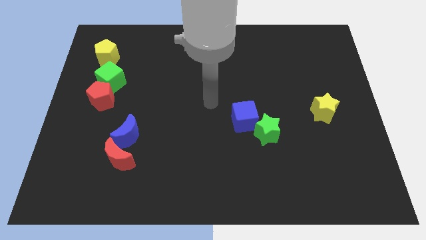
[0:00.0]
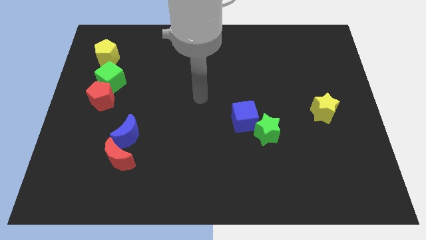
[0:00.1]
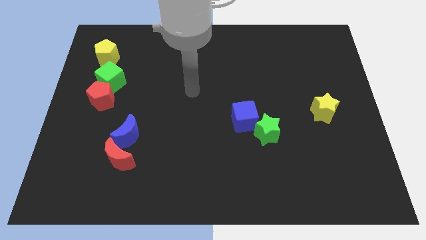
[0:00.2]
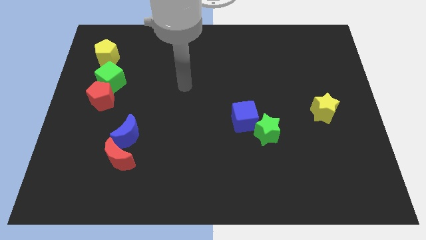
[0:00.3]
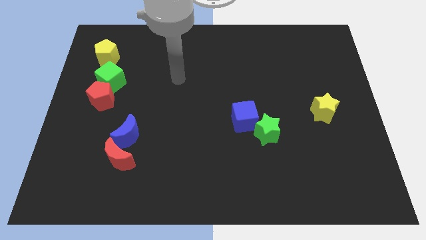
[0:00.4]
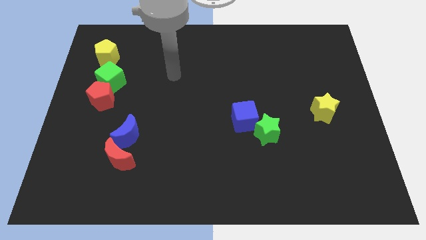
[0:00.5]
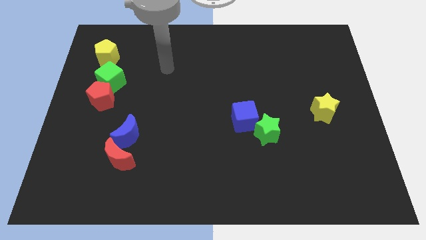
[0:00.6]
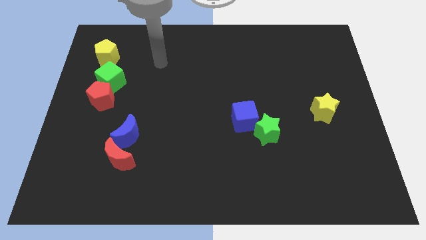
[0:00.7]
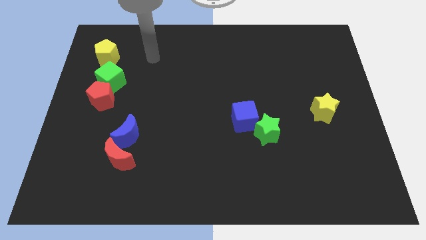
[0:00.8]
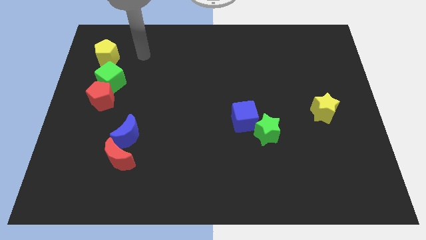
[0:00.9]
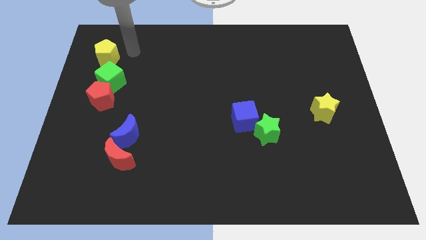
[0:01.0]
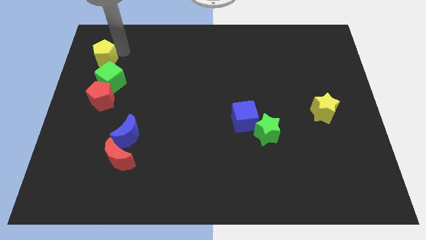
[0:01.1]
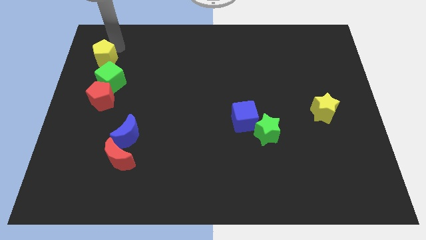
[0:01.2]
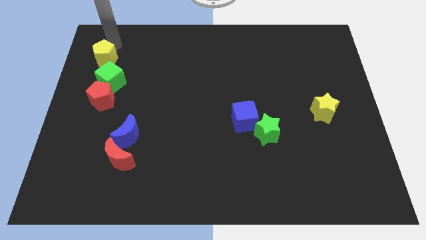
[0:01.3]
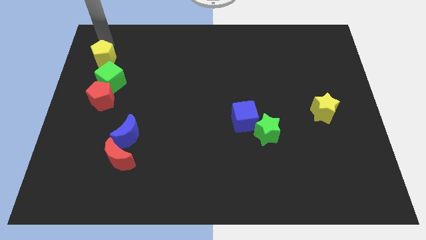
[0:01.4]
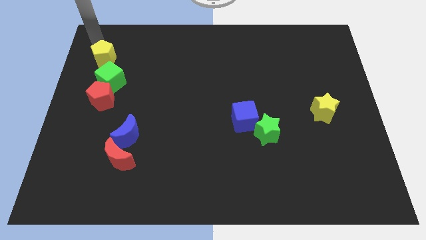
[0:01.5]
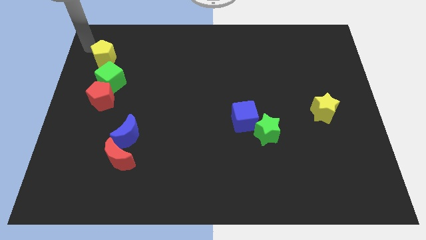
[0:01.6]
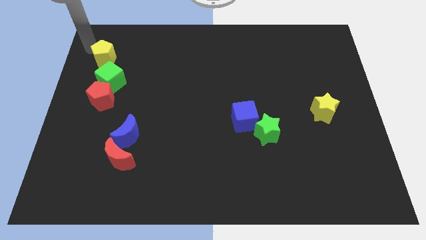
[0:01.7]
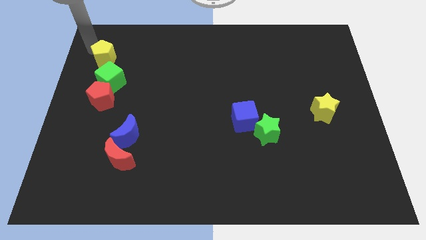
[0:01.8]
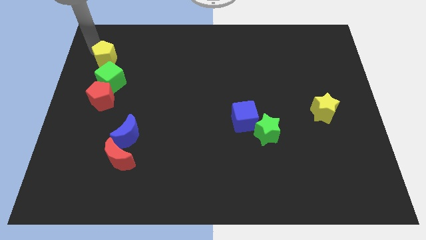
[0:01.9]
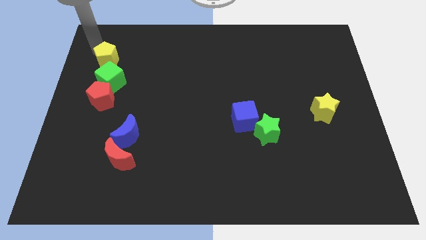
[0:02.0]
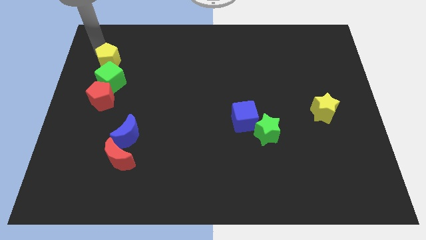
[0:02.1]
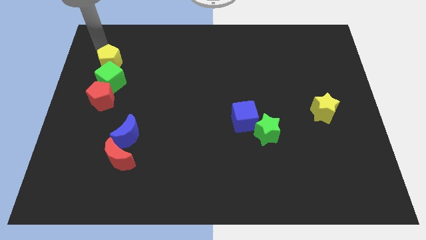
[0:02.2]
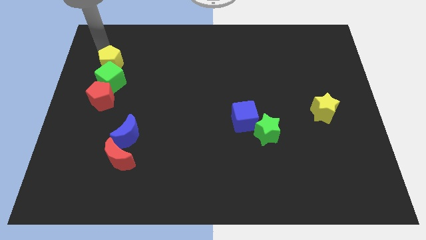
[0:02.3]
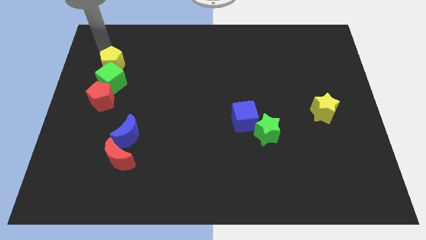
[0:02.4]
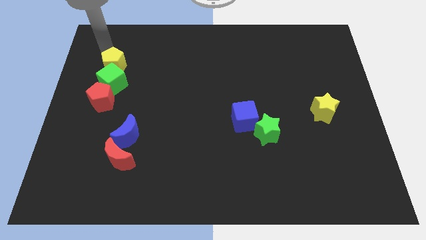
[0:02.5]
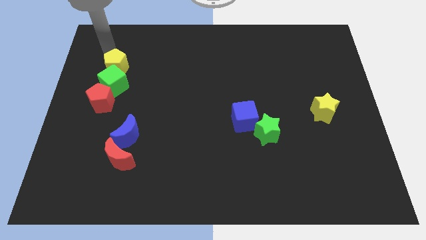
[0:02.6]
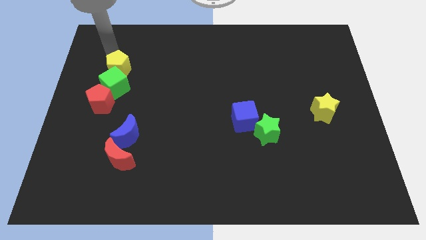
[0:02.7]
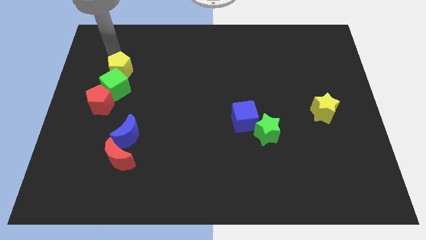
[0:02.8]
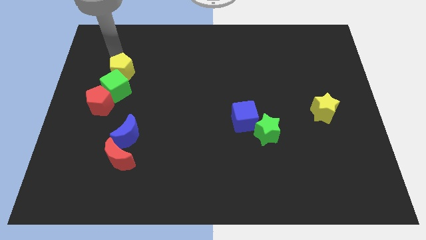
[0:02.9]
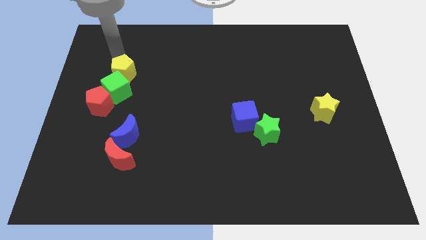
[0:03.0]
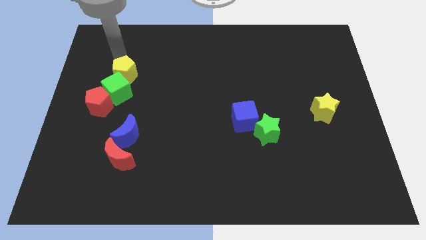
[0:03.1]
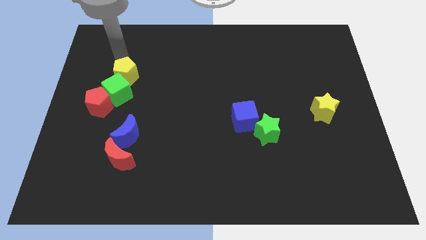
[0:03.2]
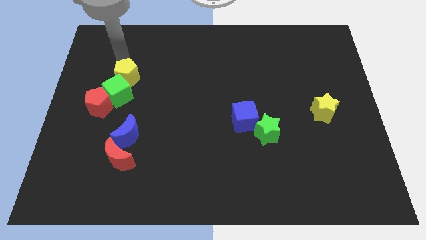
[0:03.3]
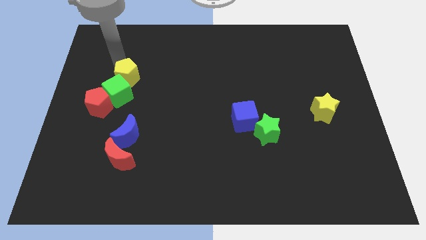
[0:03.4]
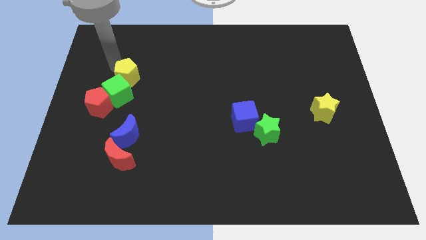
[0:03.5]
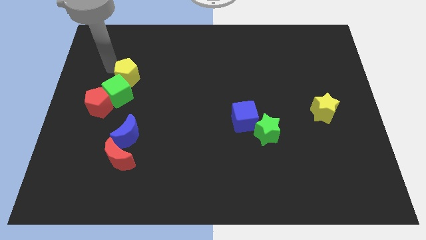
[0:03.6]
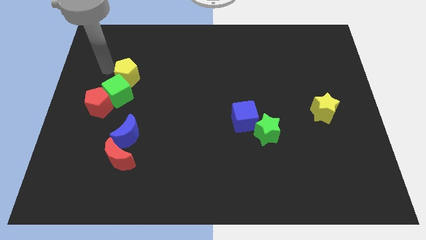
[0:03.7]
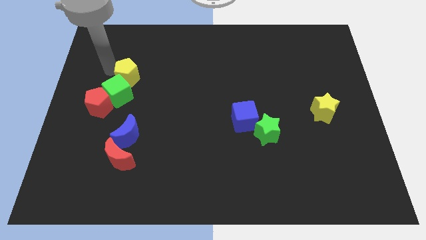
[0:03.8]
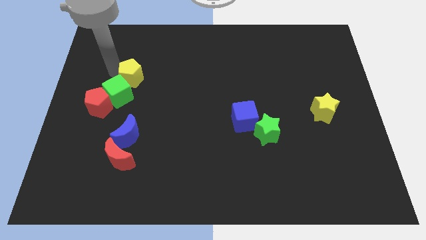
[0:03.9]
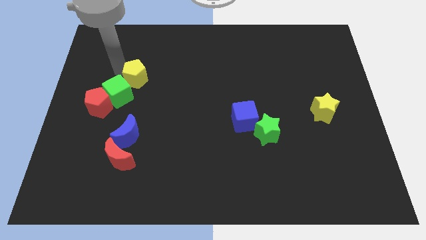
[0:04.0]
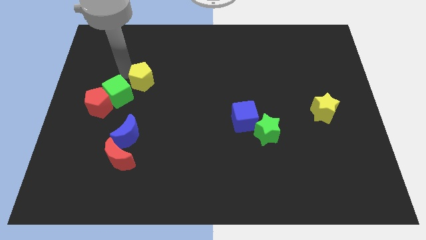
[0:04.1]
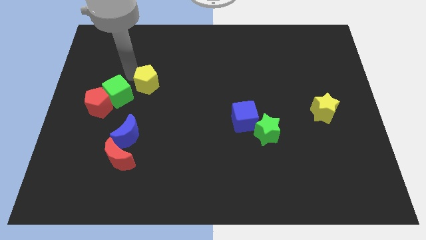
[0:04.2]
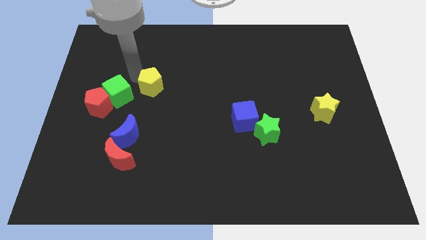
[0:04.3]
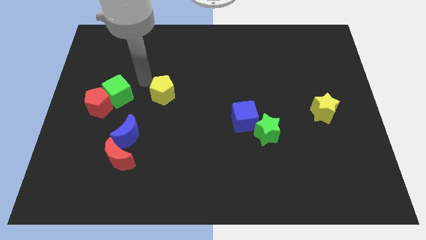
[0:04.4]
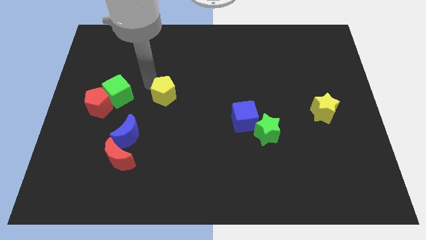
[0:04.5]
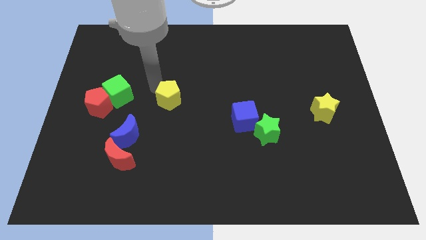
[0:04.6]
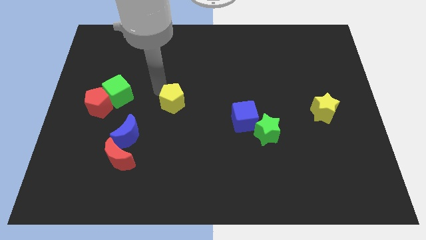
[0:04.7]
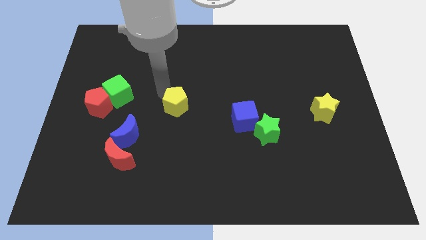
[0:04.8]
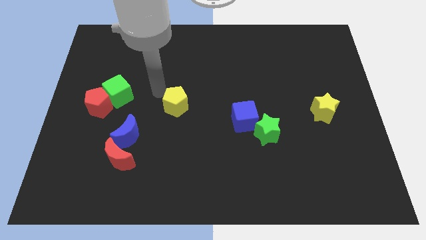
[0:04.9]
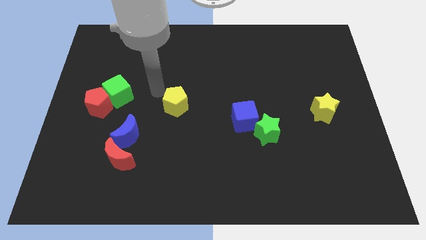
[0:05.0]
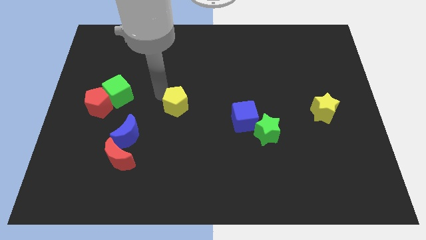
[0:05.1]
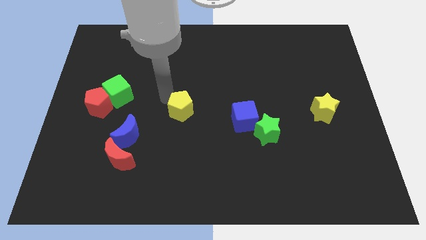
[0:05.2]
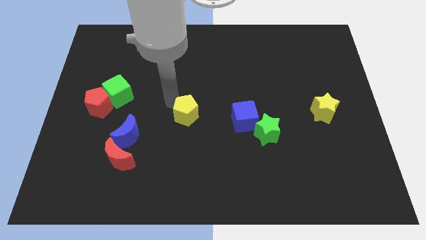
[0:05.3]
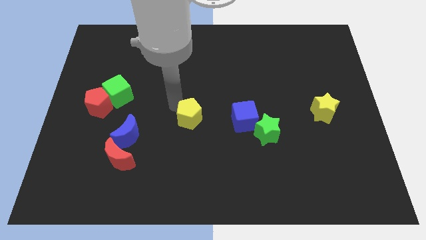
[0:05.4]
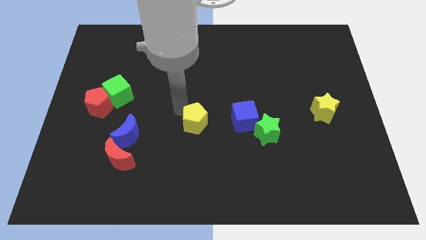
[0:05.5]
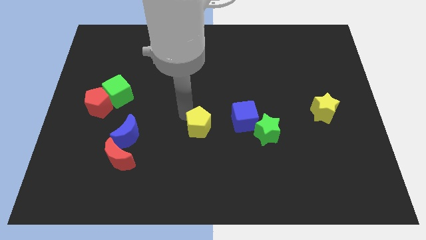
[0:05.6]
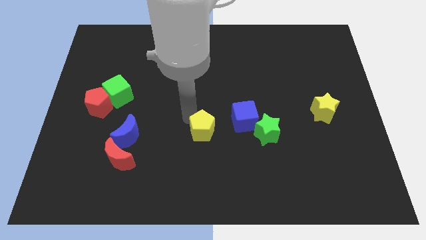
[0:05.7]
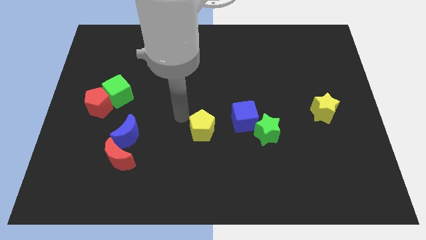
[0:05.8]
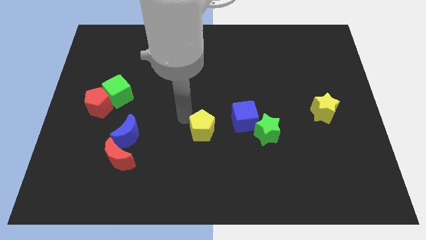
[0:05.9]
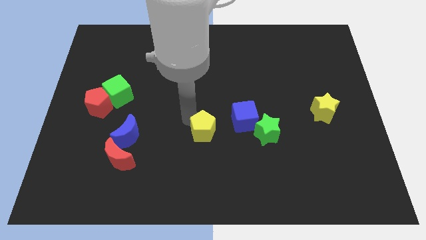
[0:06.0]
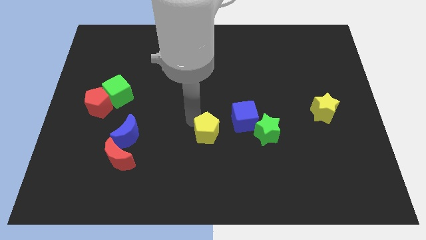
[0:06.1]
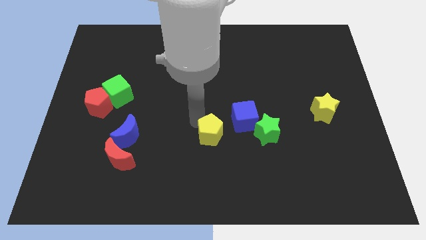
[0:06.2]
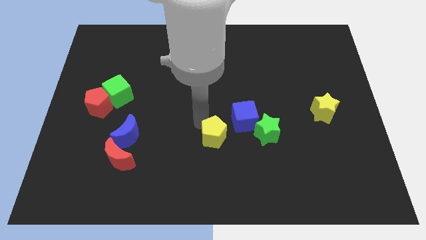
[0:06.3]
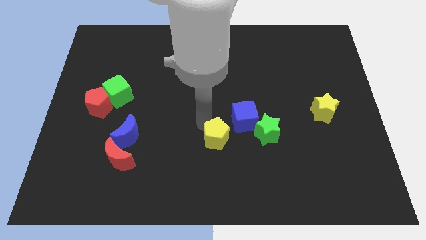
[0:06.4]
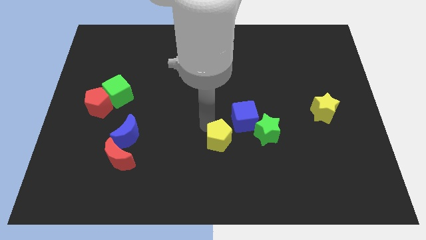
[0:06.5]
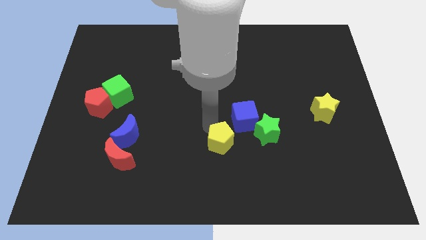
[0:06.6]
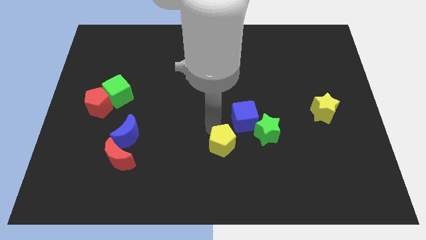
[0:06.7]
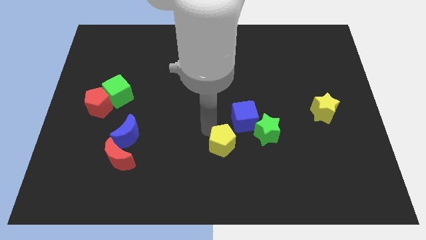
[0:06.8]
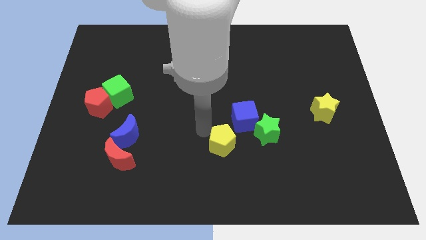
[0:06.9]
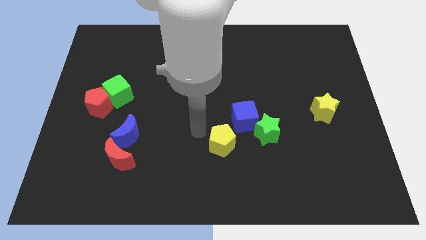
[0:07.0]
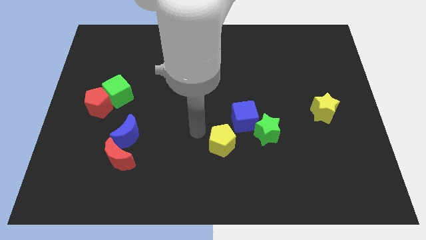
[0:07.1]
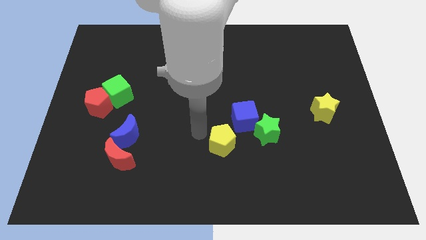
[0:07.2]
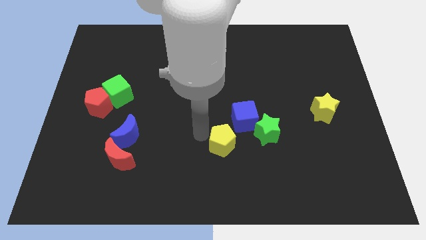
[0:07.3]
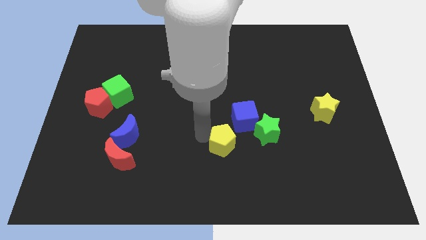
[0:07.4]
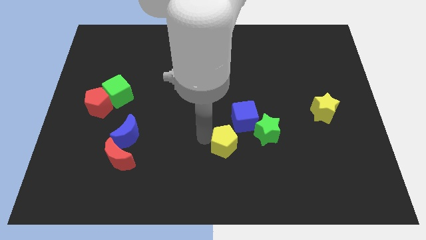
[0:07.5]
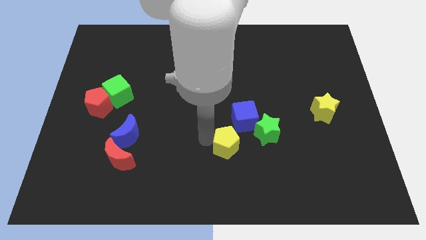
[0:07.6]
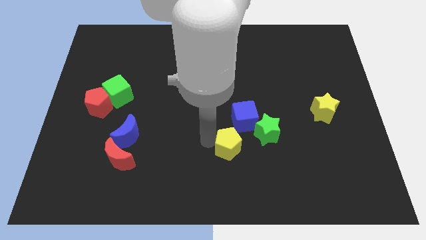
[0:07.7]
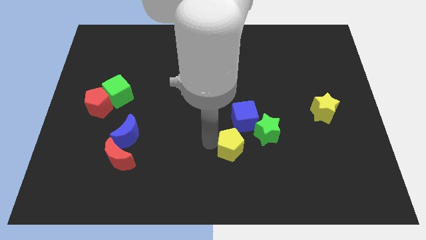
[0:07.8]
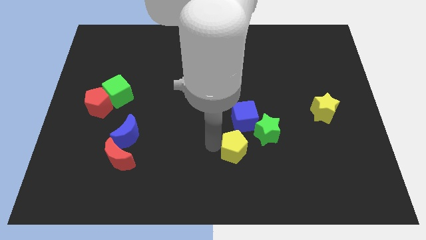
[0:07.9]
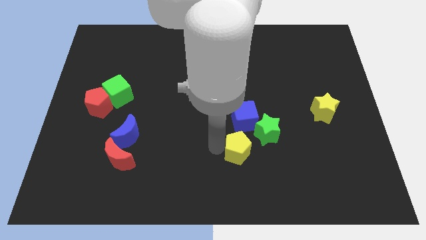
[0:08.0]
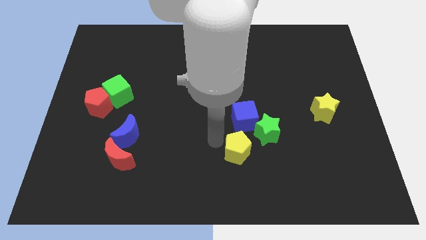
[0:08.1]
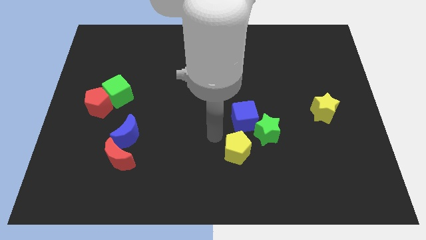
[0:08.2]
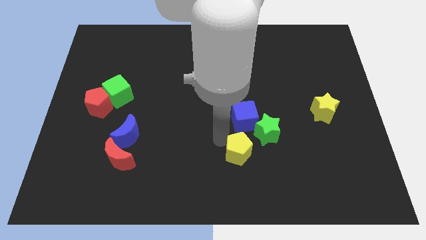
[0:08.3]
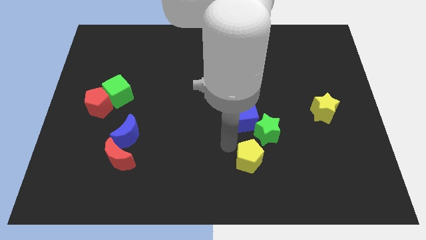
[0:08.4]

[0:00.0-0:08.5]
move the yellow pentagon to the bottom of the green star
